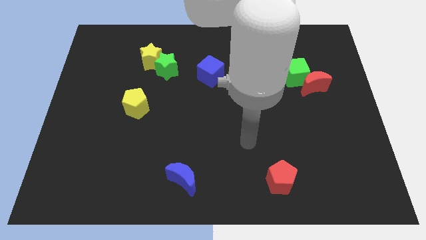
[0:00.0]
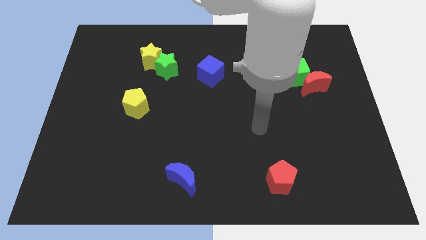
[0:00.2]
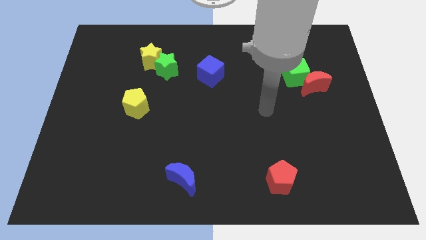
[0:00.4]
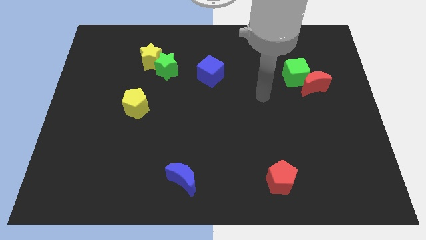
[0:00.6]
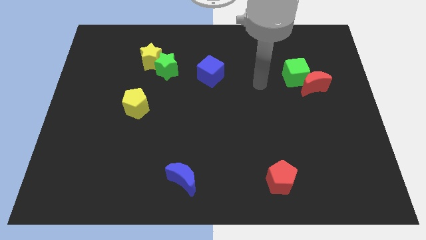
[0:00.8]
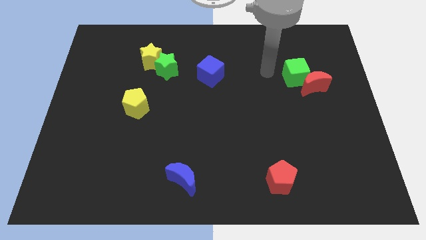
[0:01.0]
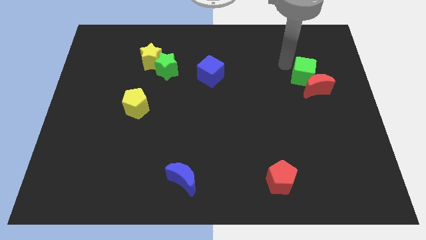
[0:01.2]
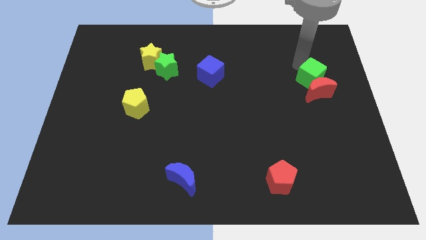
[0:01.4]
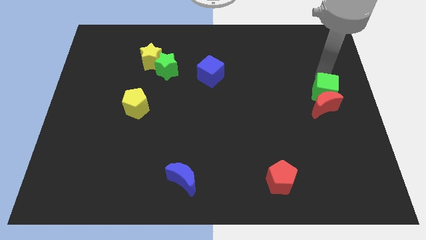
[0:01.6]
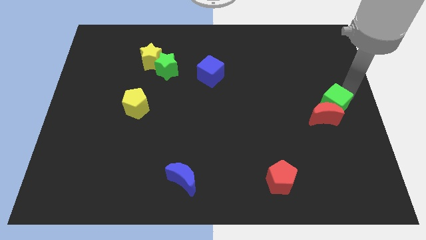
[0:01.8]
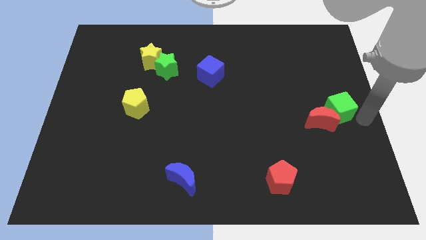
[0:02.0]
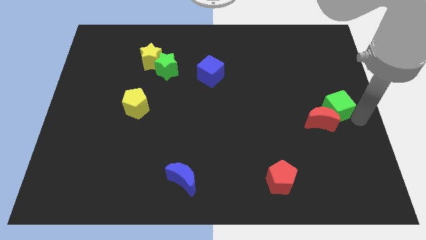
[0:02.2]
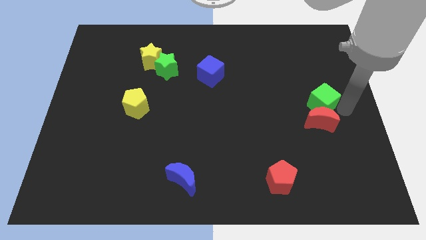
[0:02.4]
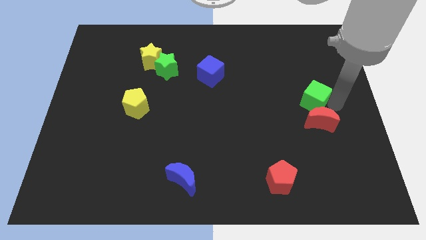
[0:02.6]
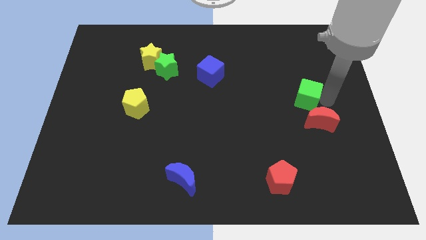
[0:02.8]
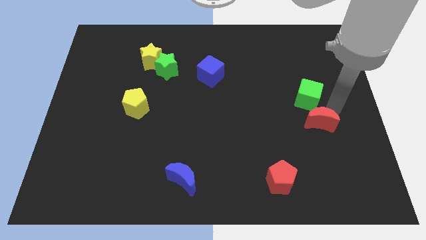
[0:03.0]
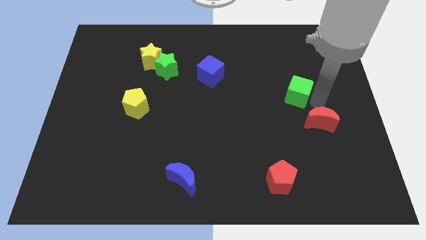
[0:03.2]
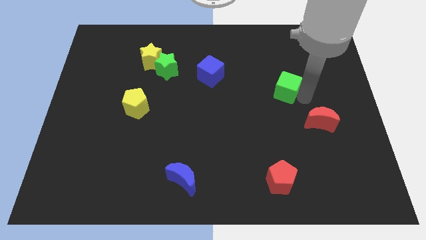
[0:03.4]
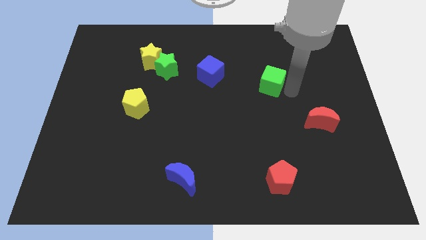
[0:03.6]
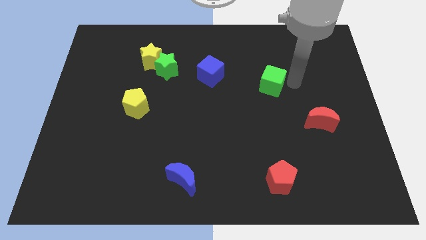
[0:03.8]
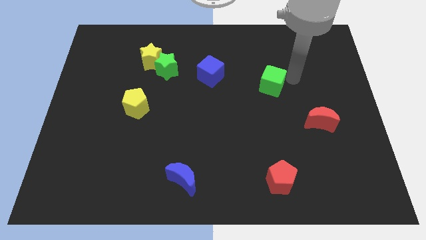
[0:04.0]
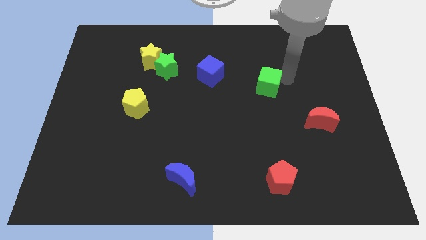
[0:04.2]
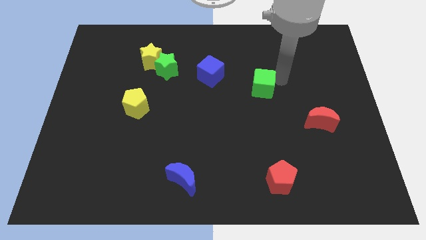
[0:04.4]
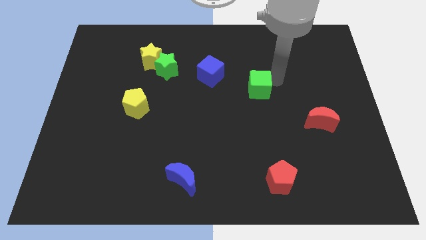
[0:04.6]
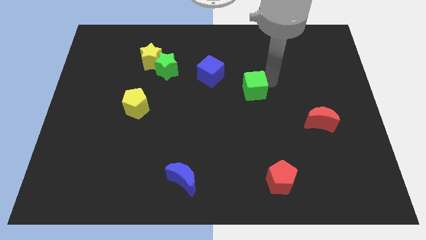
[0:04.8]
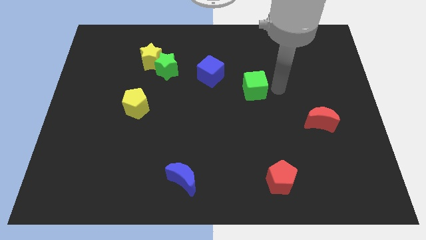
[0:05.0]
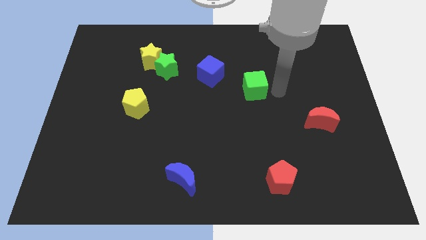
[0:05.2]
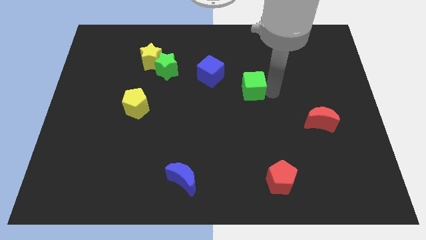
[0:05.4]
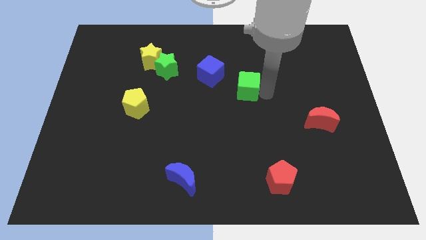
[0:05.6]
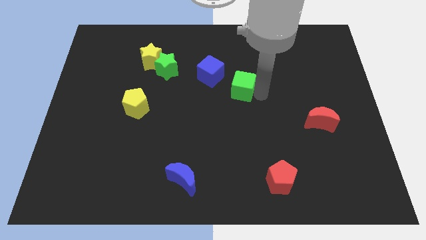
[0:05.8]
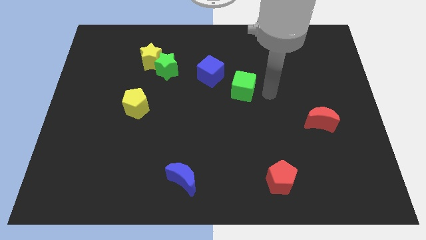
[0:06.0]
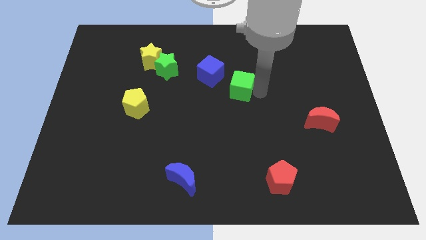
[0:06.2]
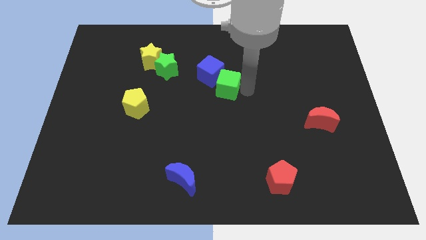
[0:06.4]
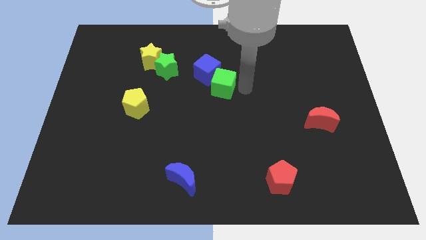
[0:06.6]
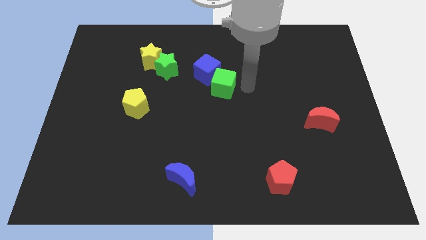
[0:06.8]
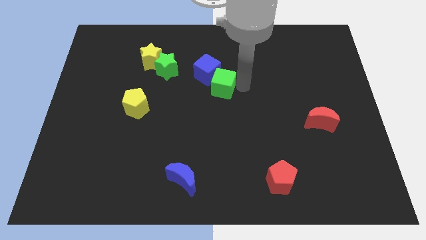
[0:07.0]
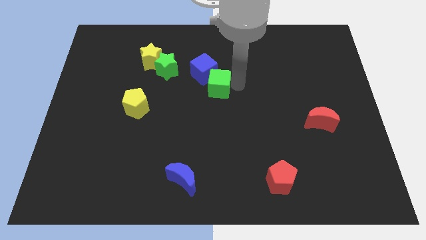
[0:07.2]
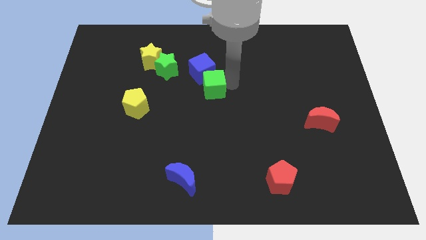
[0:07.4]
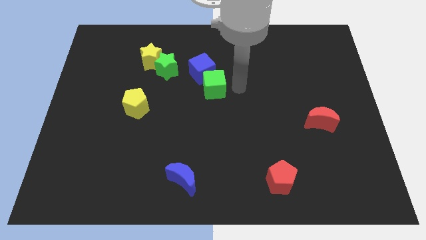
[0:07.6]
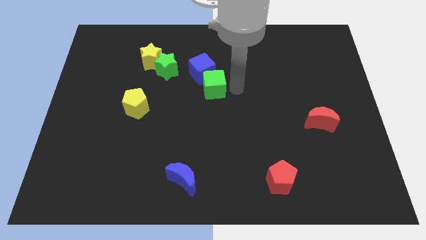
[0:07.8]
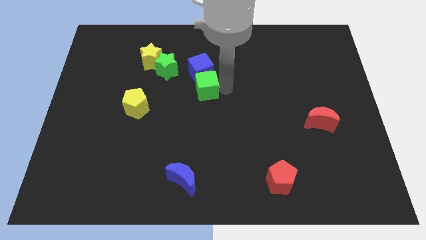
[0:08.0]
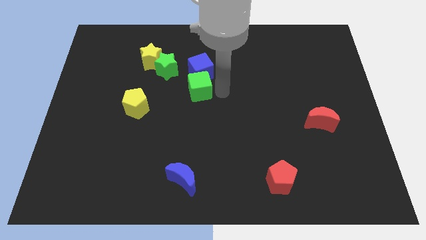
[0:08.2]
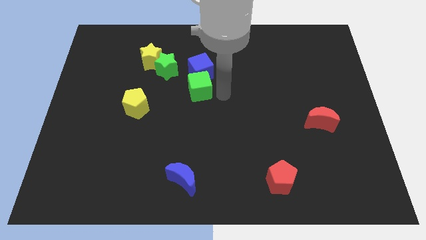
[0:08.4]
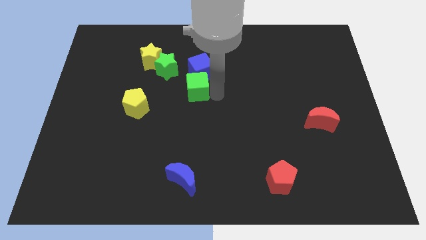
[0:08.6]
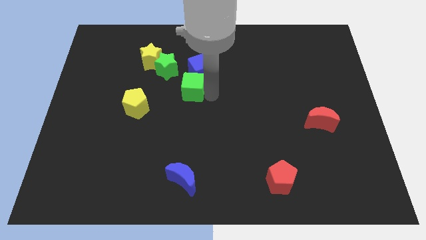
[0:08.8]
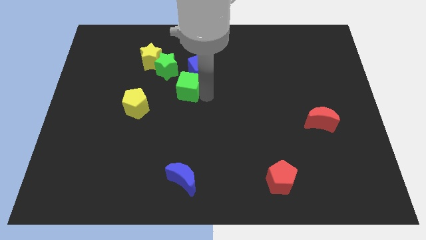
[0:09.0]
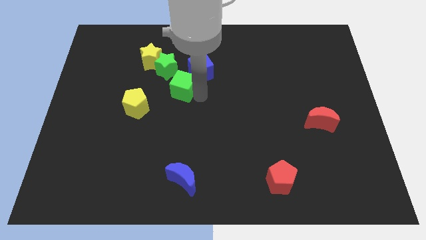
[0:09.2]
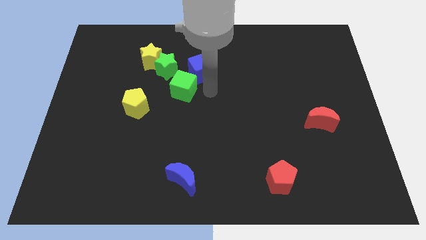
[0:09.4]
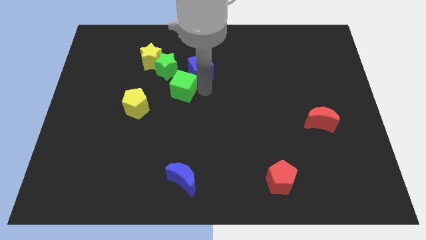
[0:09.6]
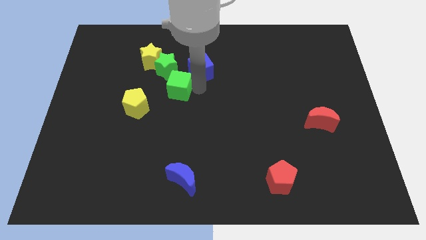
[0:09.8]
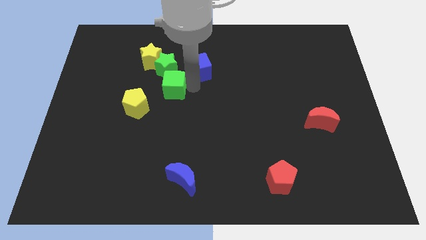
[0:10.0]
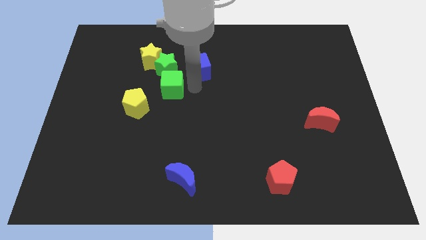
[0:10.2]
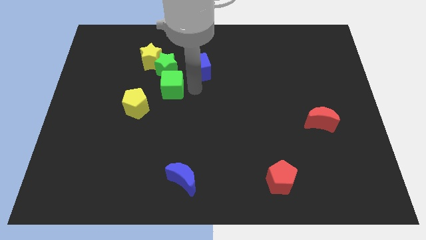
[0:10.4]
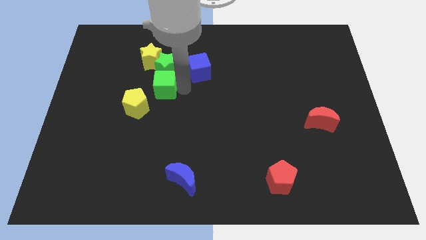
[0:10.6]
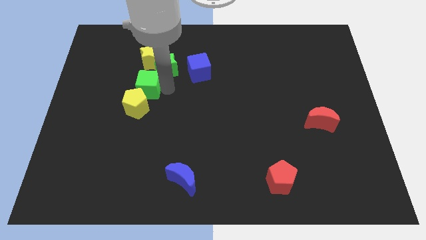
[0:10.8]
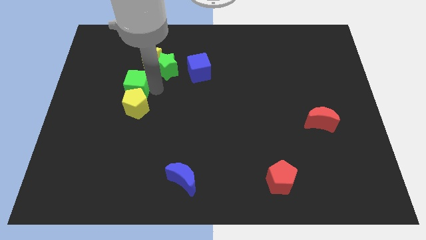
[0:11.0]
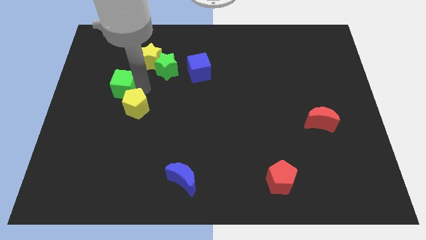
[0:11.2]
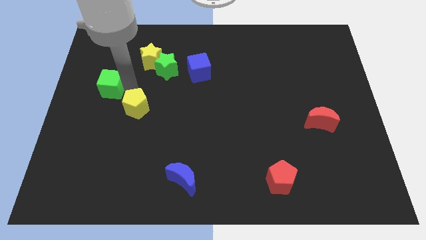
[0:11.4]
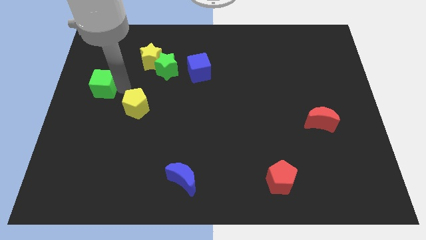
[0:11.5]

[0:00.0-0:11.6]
put the green cube to the center left

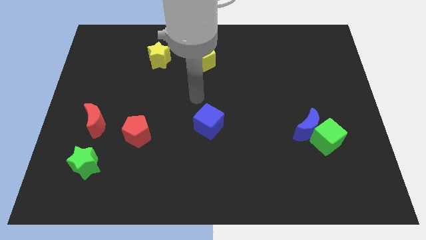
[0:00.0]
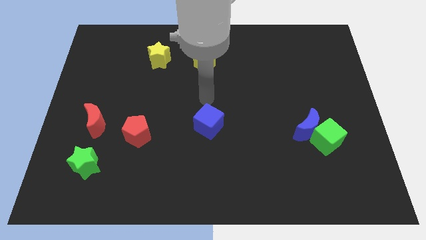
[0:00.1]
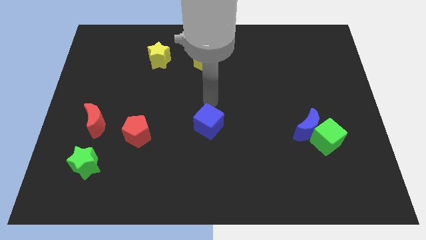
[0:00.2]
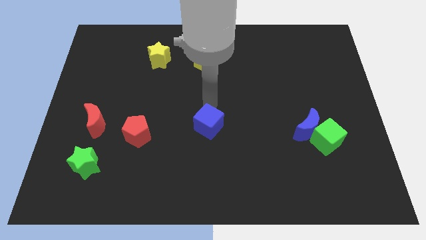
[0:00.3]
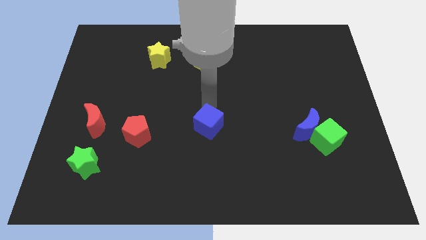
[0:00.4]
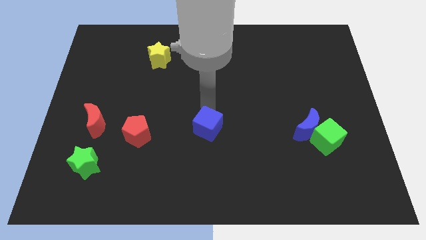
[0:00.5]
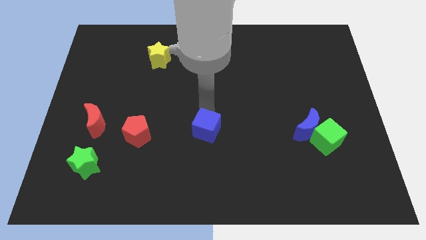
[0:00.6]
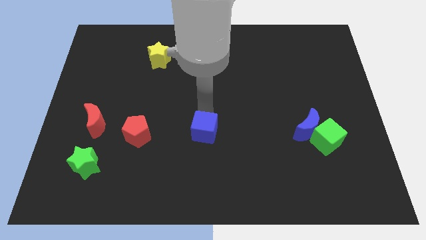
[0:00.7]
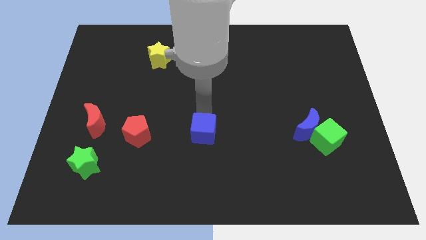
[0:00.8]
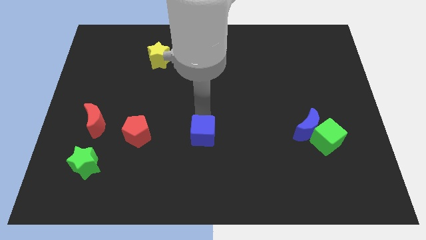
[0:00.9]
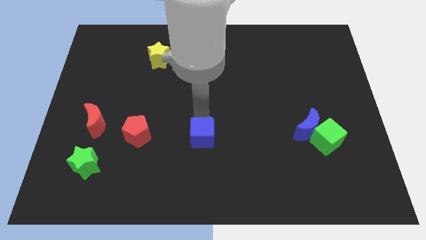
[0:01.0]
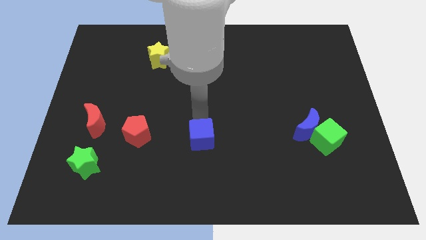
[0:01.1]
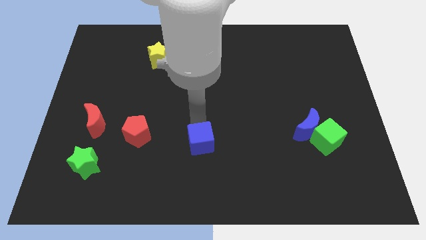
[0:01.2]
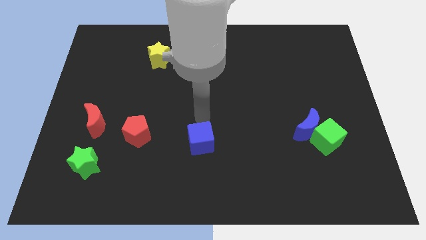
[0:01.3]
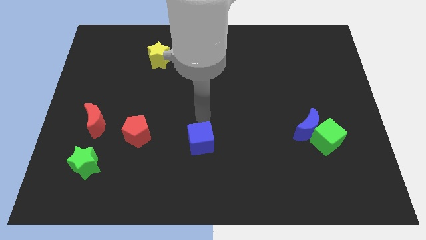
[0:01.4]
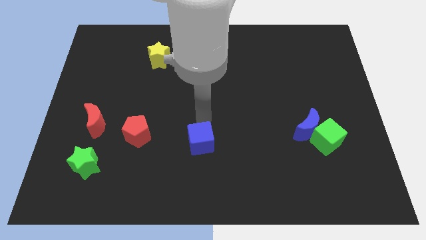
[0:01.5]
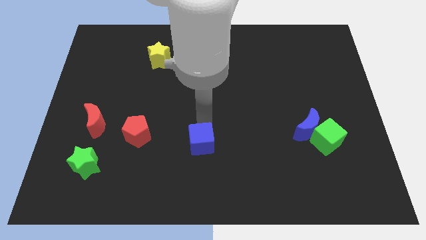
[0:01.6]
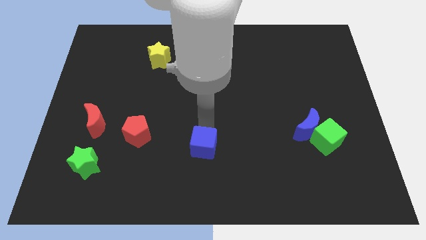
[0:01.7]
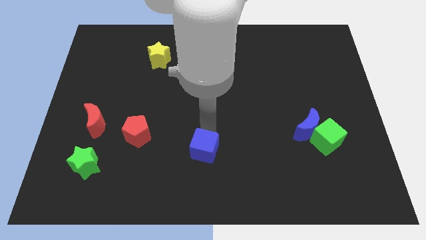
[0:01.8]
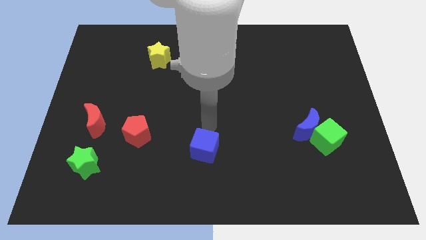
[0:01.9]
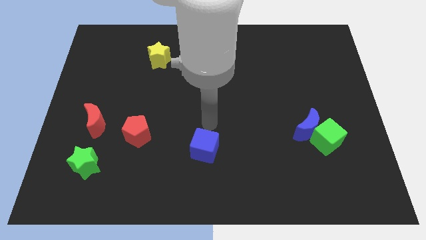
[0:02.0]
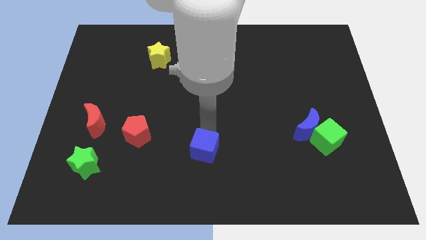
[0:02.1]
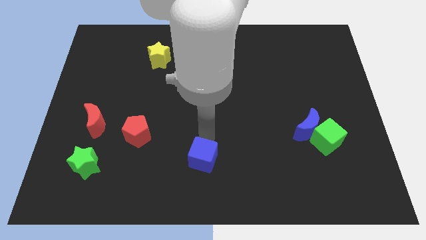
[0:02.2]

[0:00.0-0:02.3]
slide the blue cube to the bottom
